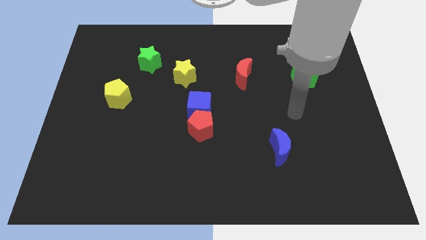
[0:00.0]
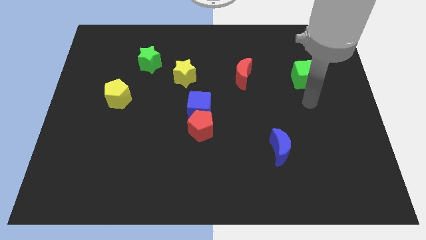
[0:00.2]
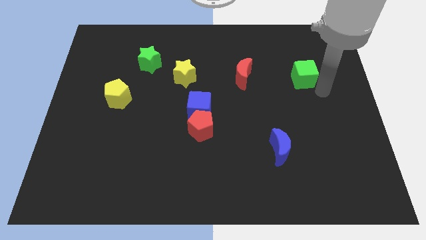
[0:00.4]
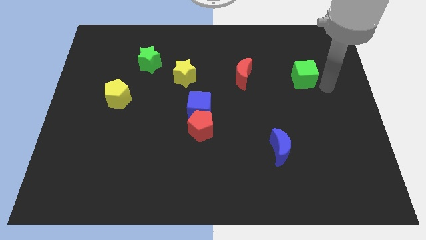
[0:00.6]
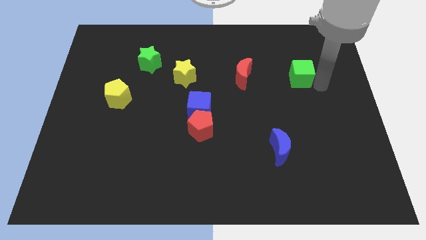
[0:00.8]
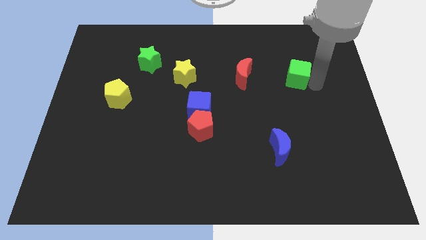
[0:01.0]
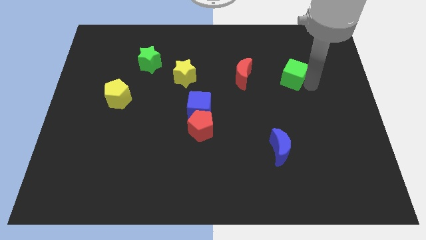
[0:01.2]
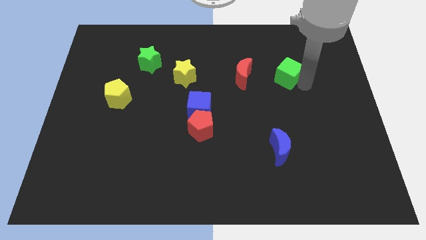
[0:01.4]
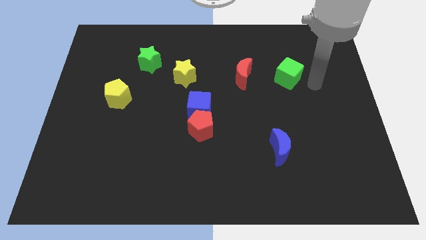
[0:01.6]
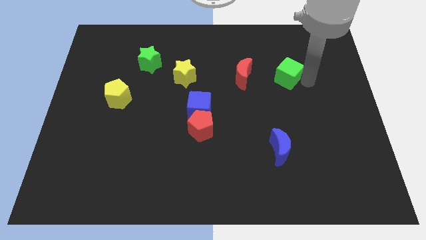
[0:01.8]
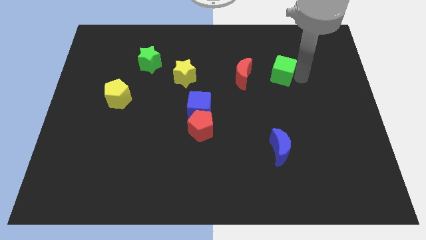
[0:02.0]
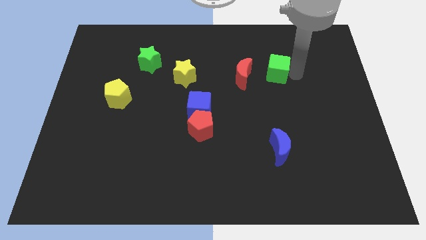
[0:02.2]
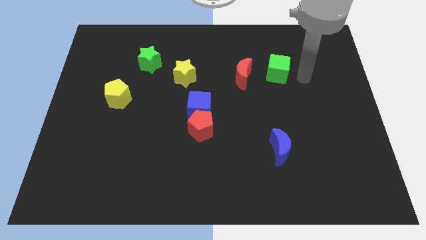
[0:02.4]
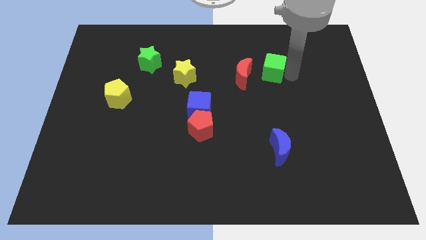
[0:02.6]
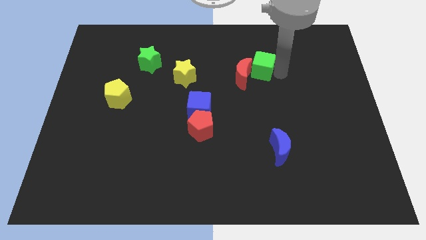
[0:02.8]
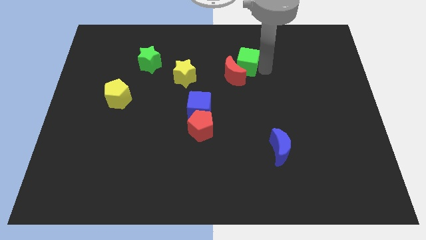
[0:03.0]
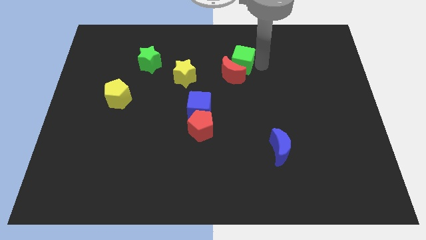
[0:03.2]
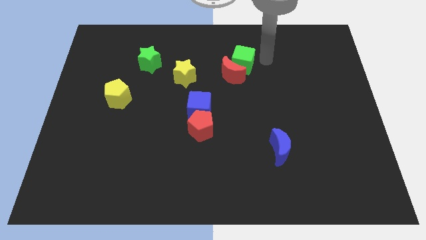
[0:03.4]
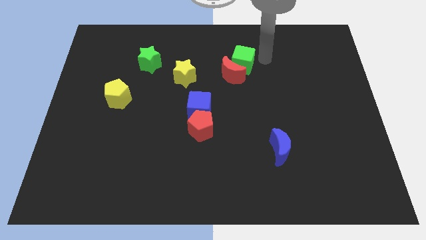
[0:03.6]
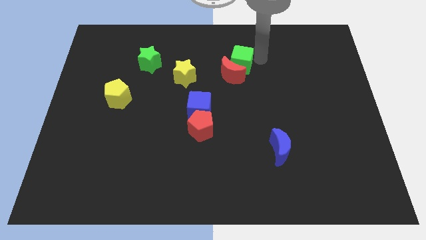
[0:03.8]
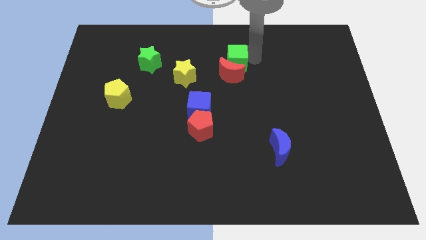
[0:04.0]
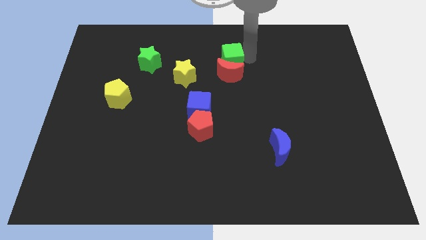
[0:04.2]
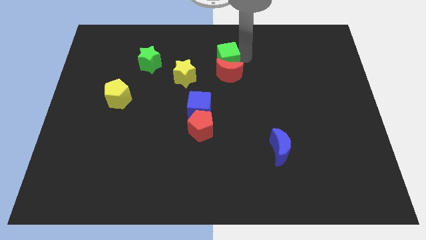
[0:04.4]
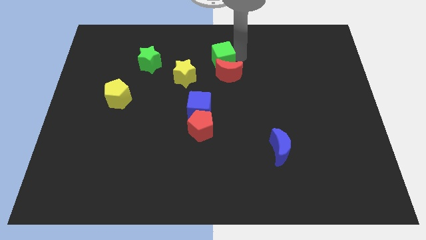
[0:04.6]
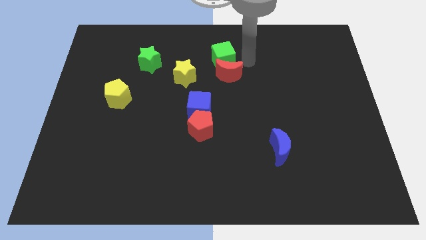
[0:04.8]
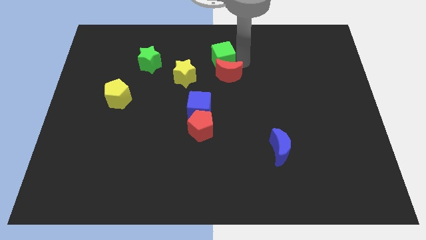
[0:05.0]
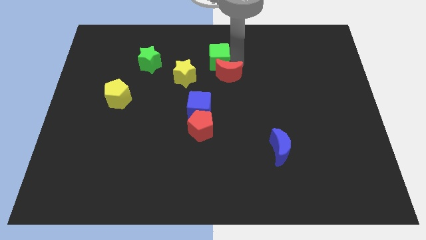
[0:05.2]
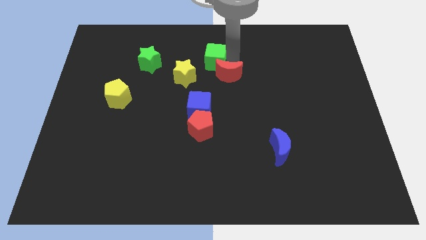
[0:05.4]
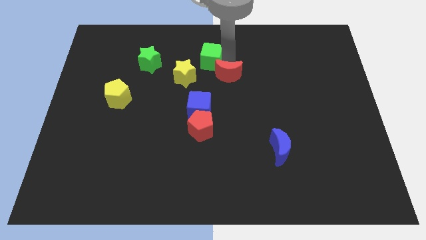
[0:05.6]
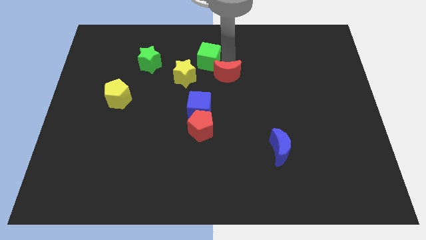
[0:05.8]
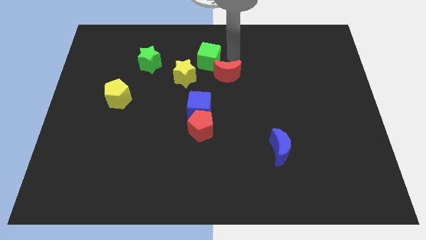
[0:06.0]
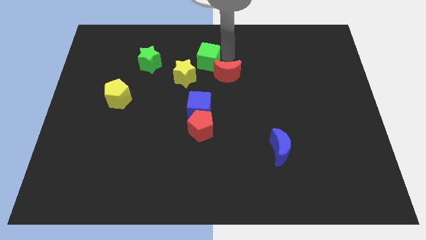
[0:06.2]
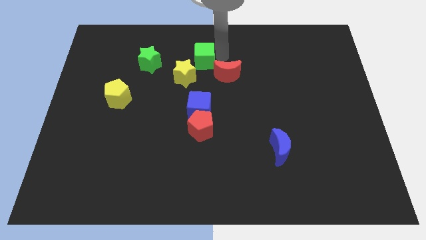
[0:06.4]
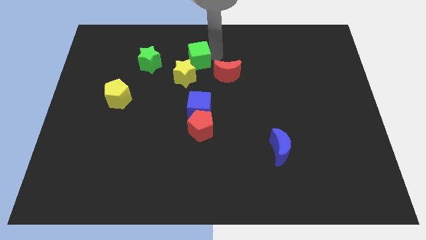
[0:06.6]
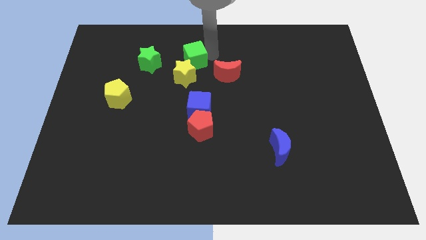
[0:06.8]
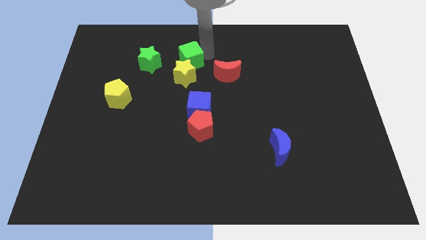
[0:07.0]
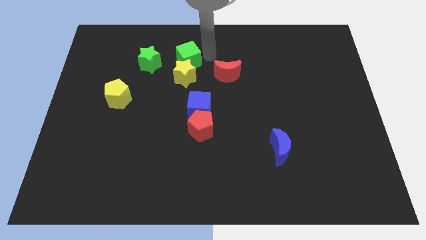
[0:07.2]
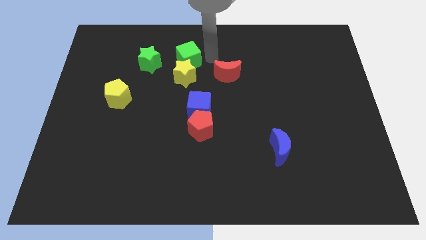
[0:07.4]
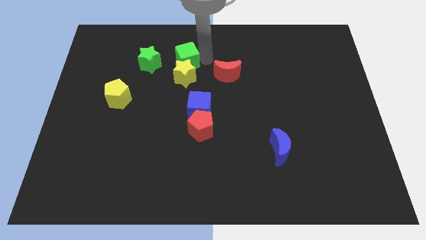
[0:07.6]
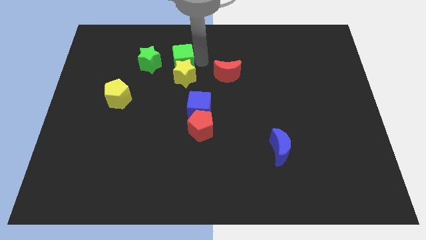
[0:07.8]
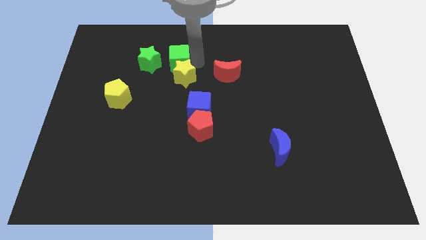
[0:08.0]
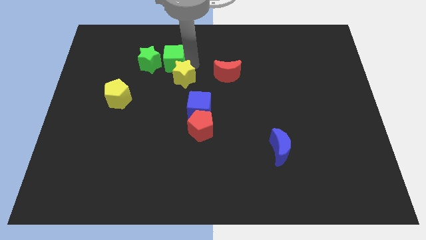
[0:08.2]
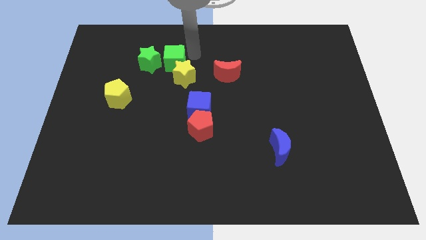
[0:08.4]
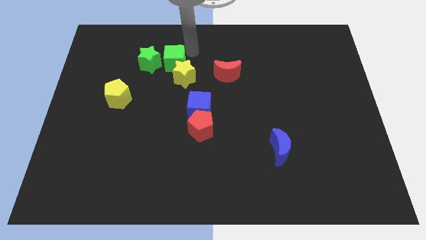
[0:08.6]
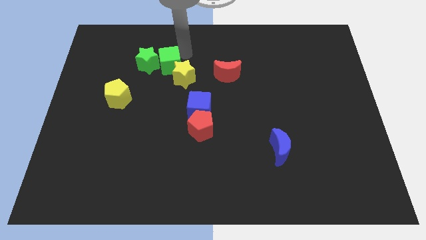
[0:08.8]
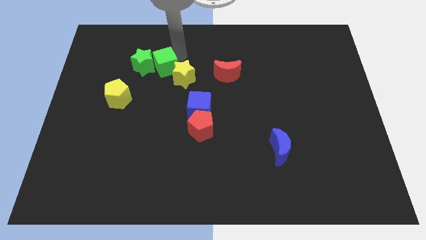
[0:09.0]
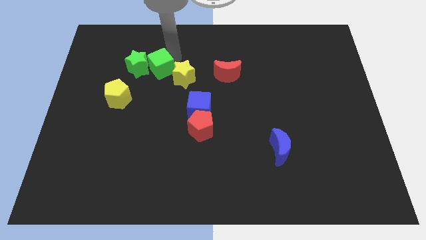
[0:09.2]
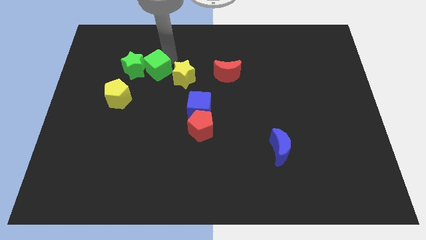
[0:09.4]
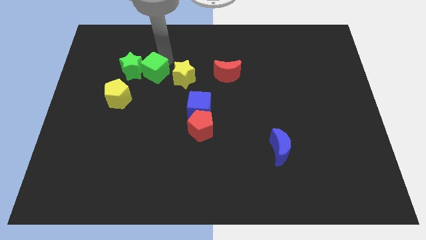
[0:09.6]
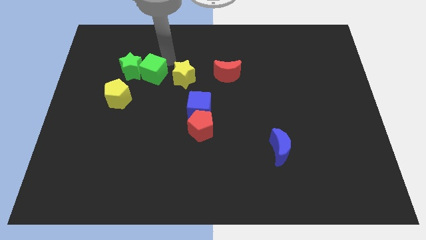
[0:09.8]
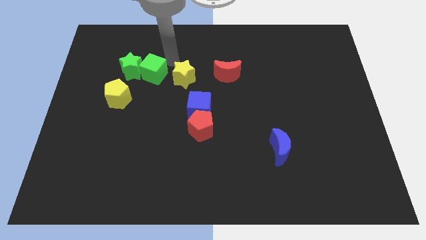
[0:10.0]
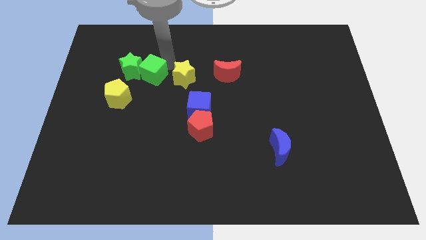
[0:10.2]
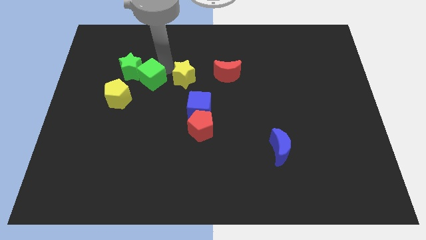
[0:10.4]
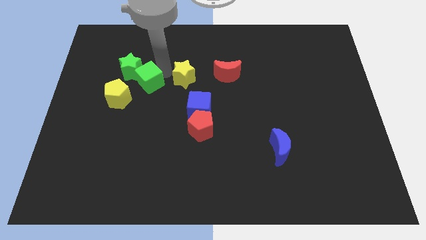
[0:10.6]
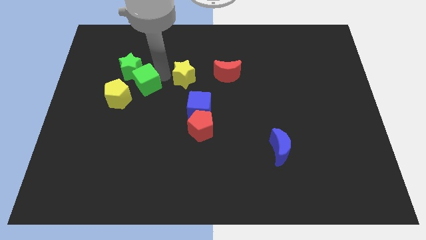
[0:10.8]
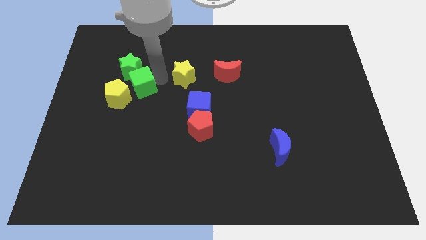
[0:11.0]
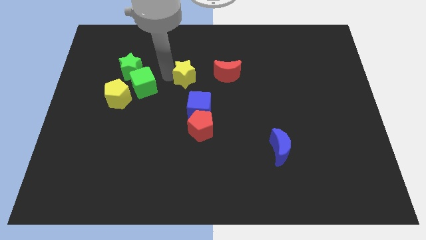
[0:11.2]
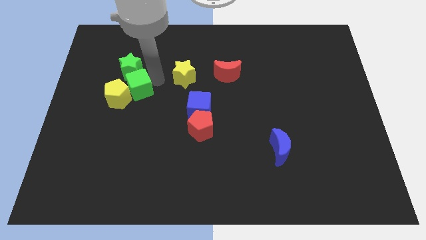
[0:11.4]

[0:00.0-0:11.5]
move the green cube close to the yellow pentagon

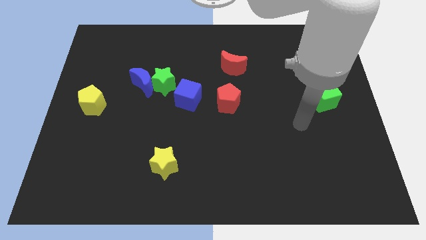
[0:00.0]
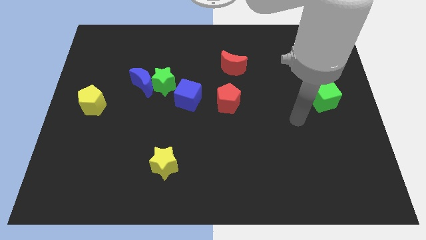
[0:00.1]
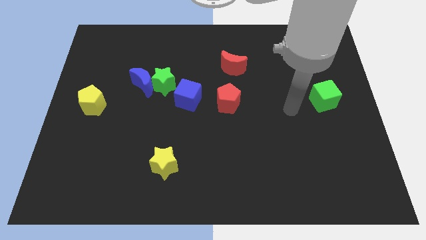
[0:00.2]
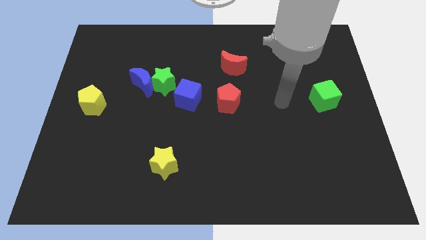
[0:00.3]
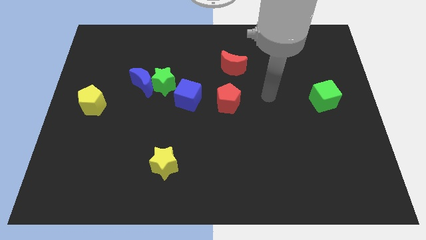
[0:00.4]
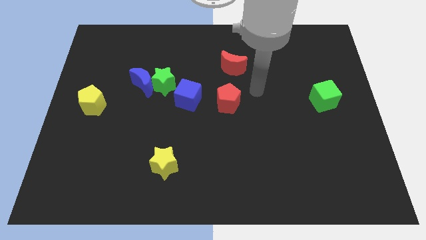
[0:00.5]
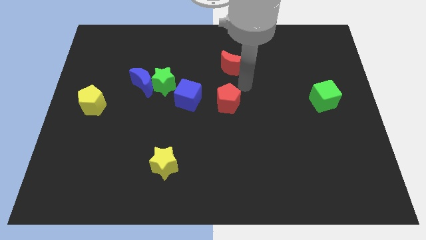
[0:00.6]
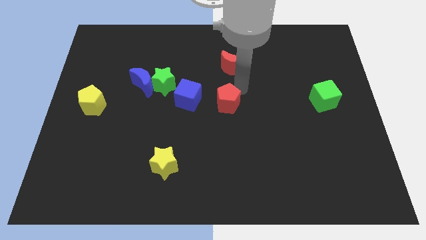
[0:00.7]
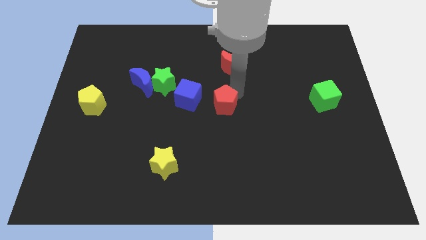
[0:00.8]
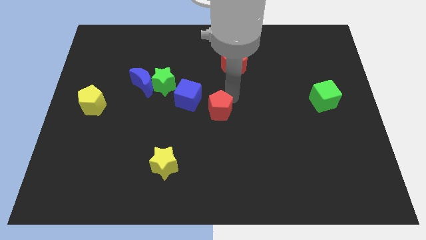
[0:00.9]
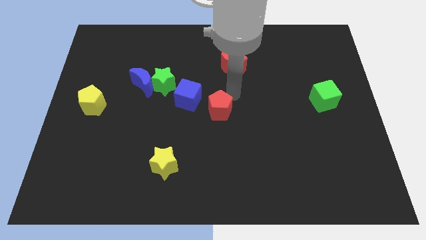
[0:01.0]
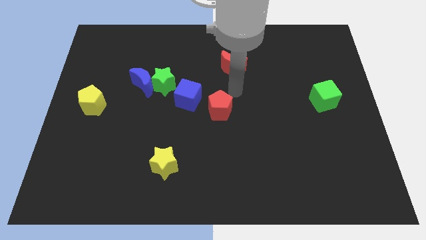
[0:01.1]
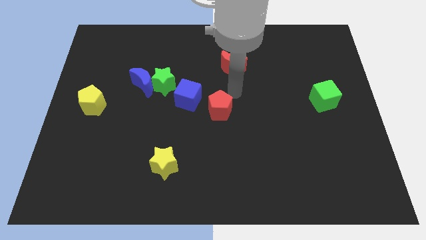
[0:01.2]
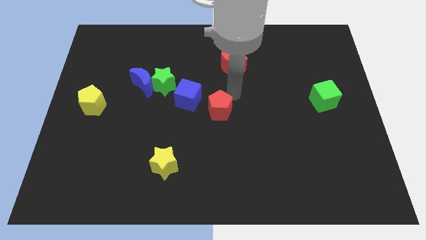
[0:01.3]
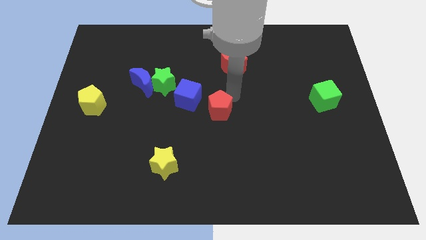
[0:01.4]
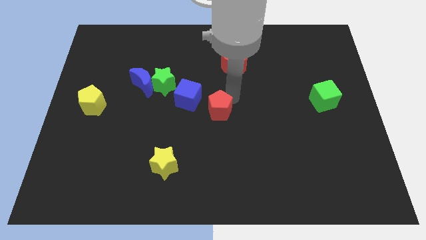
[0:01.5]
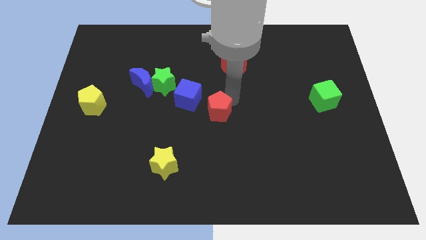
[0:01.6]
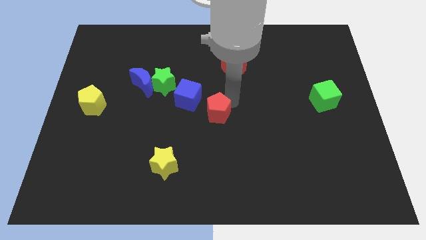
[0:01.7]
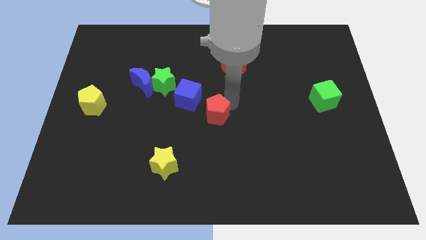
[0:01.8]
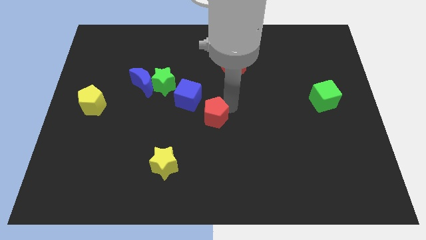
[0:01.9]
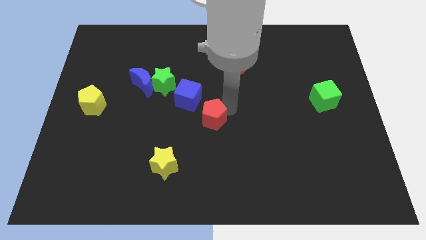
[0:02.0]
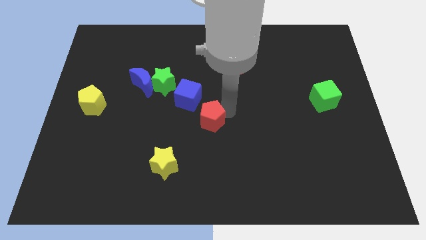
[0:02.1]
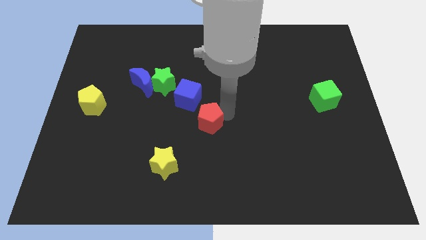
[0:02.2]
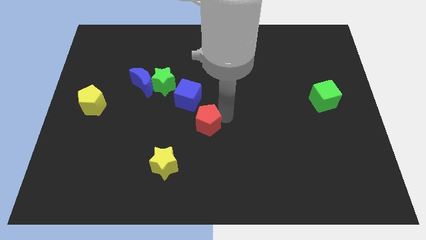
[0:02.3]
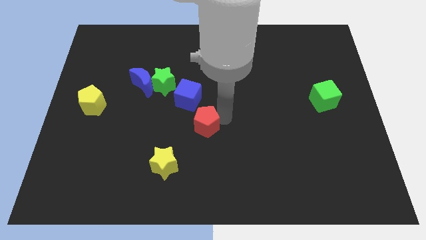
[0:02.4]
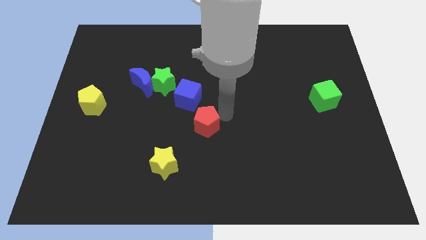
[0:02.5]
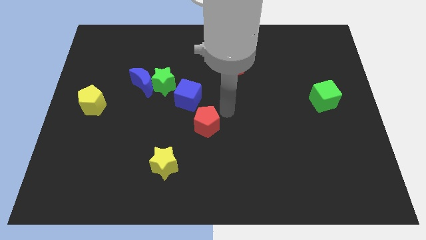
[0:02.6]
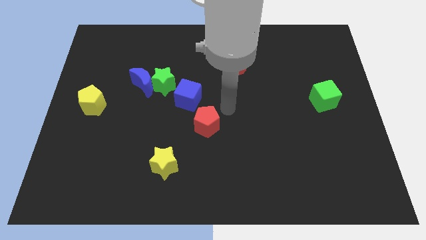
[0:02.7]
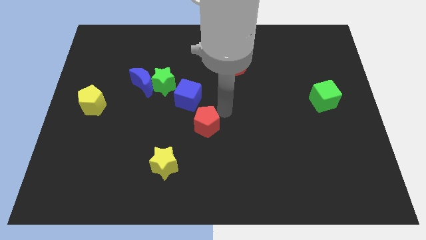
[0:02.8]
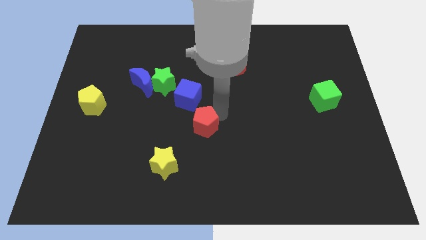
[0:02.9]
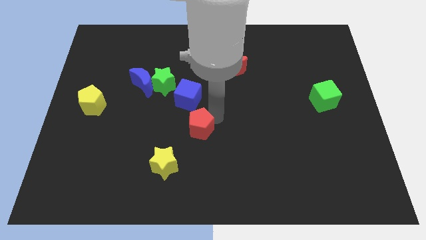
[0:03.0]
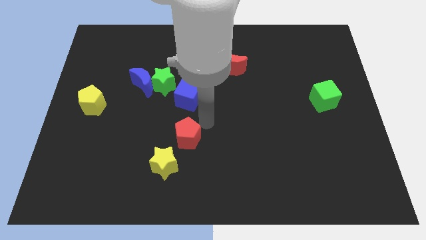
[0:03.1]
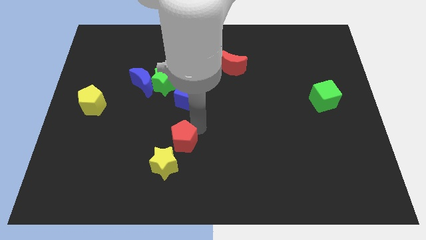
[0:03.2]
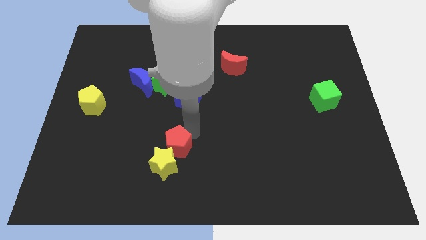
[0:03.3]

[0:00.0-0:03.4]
put the red pentagon close to the yellow star
